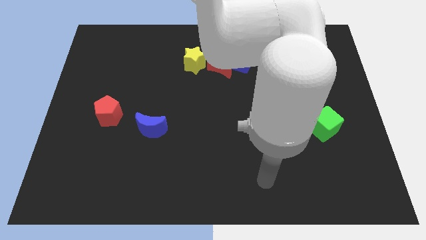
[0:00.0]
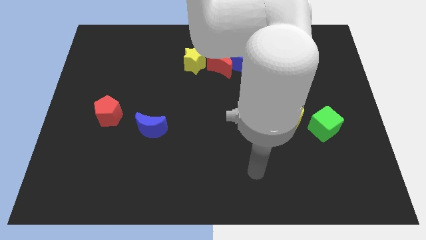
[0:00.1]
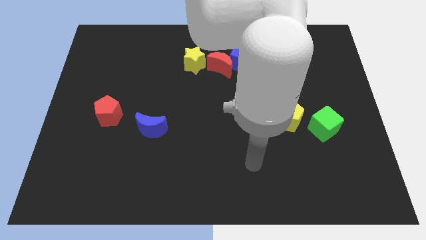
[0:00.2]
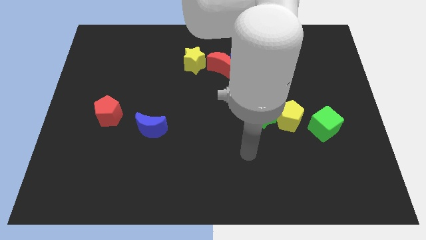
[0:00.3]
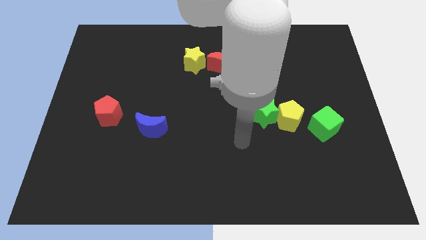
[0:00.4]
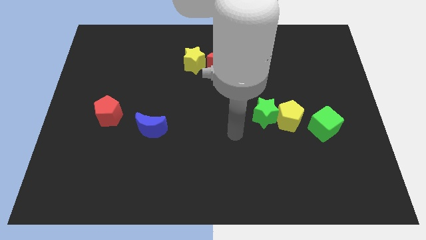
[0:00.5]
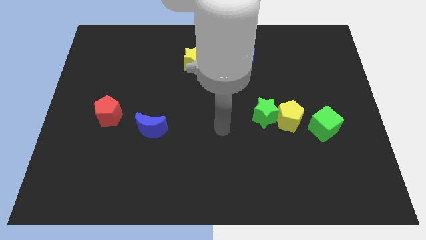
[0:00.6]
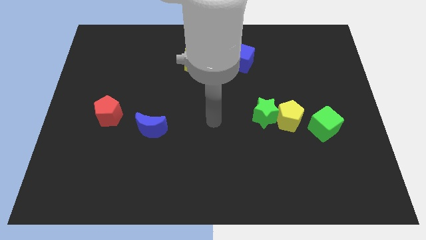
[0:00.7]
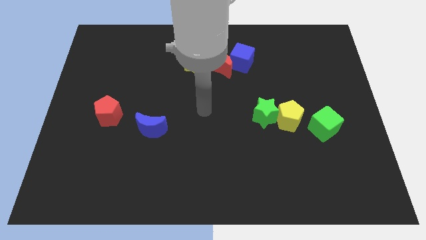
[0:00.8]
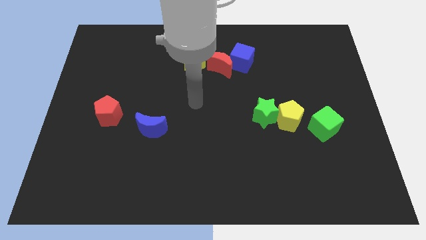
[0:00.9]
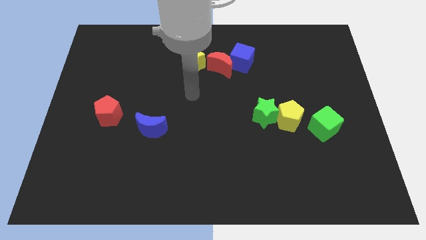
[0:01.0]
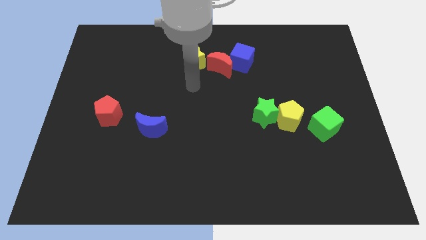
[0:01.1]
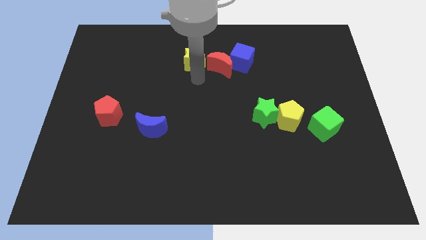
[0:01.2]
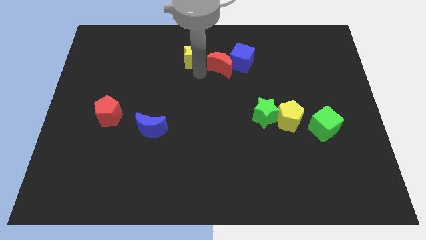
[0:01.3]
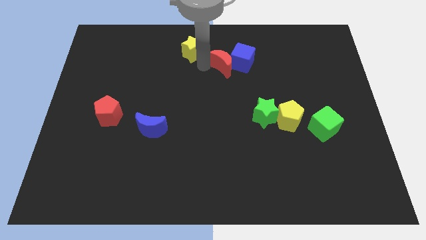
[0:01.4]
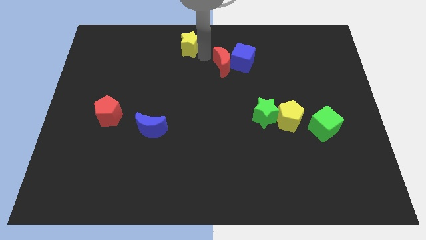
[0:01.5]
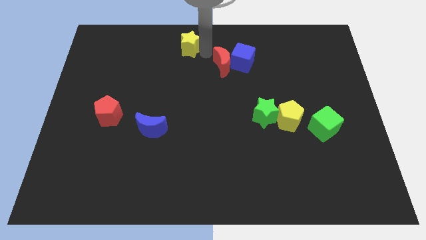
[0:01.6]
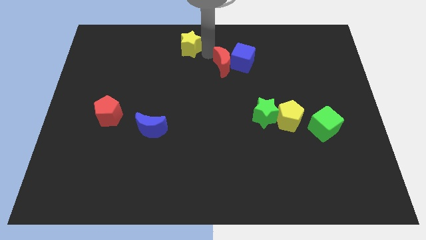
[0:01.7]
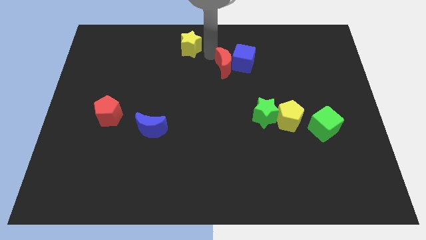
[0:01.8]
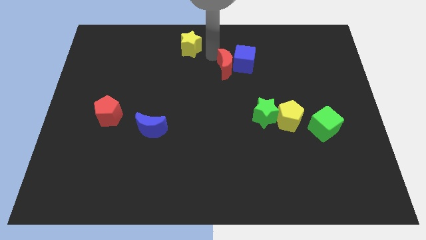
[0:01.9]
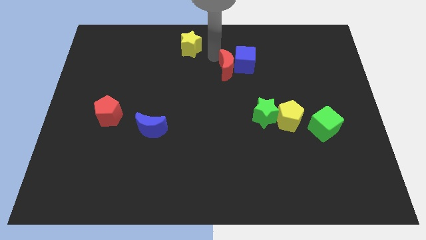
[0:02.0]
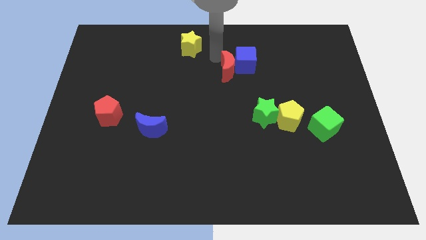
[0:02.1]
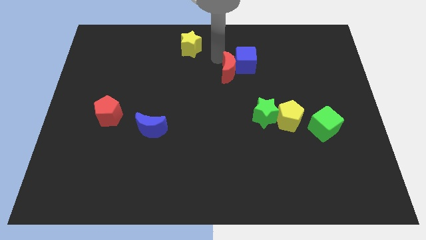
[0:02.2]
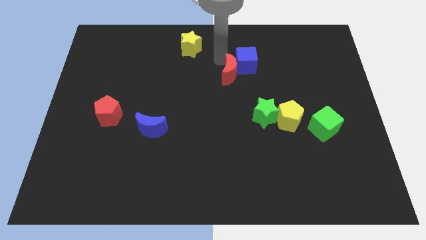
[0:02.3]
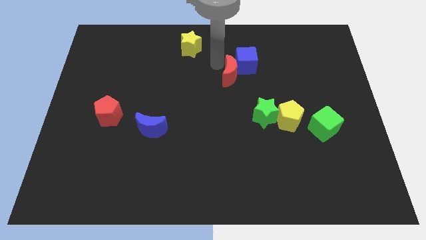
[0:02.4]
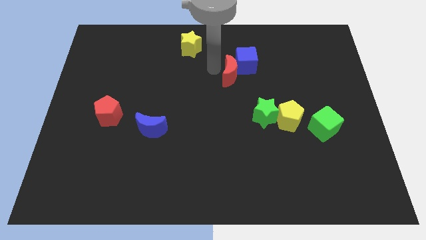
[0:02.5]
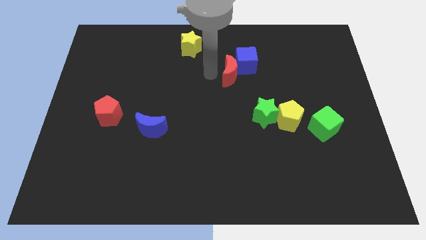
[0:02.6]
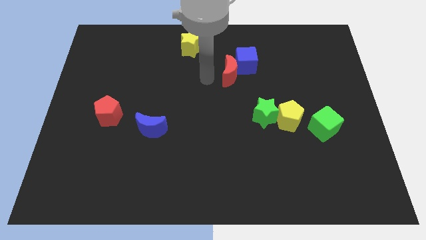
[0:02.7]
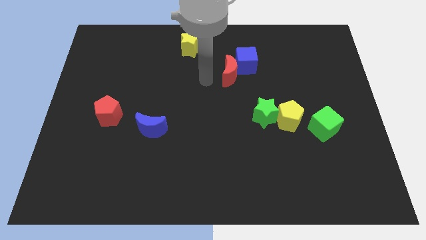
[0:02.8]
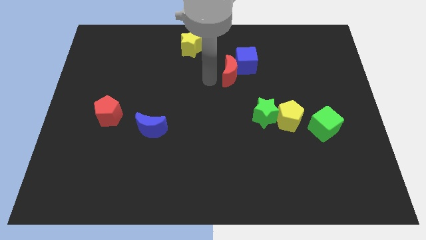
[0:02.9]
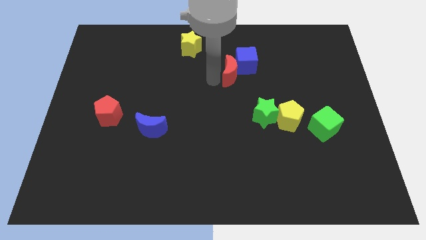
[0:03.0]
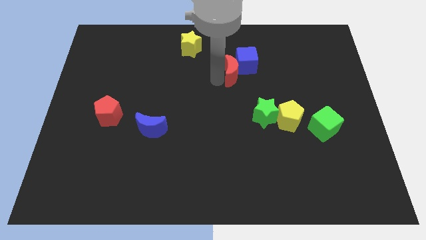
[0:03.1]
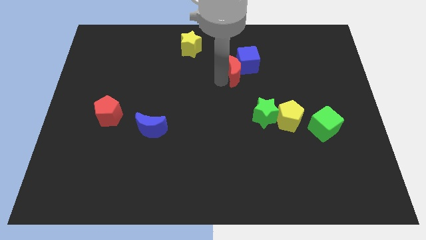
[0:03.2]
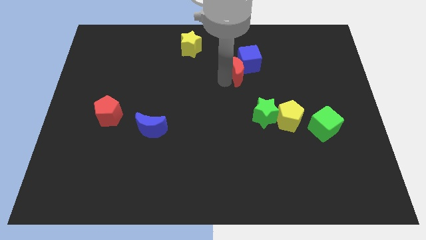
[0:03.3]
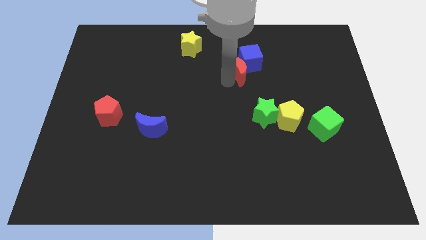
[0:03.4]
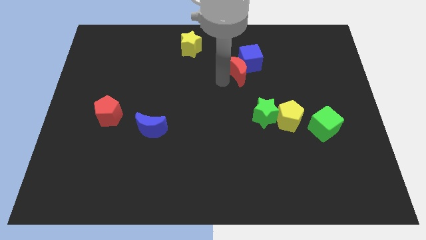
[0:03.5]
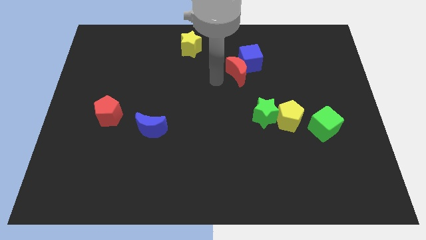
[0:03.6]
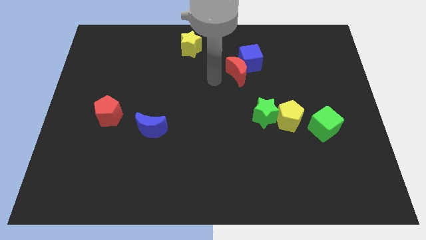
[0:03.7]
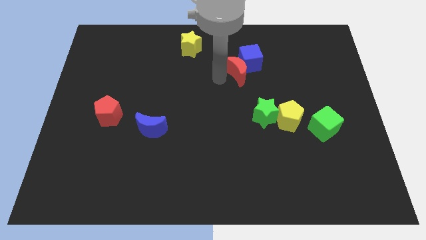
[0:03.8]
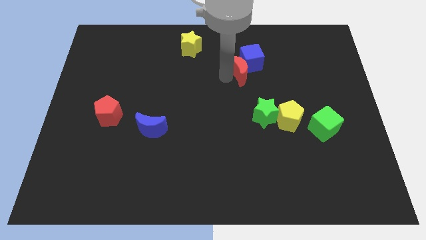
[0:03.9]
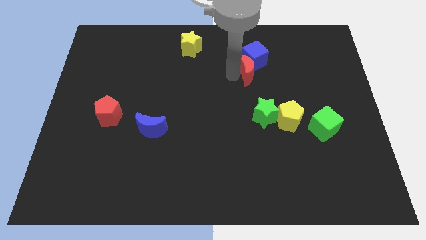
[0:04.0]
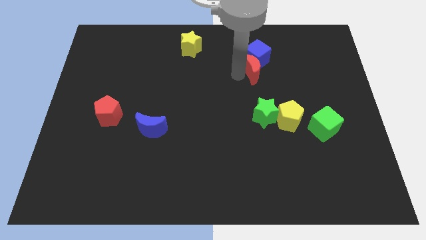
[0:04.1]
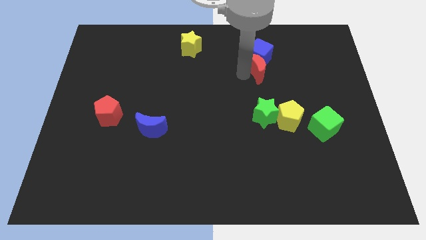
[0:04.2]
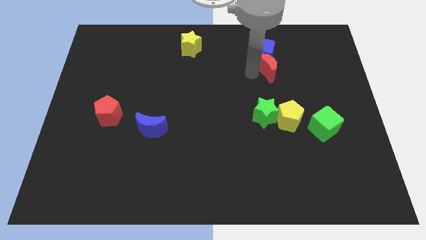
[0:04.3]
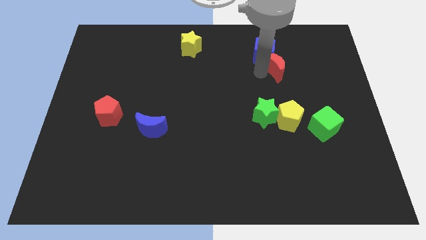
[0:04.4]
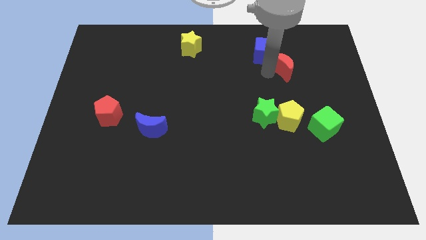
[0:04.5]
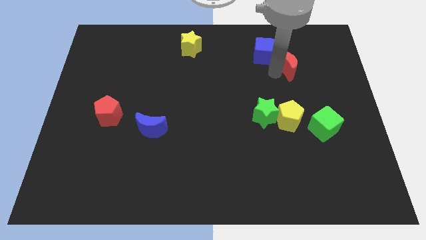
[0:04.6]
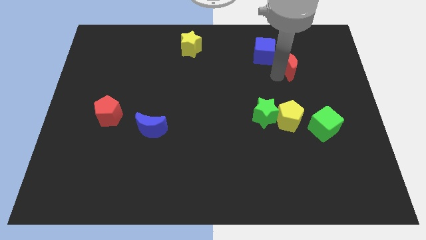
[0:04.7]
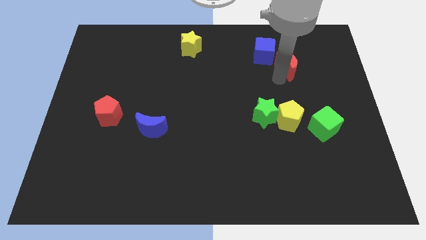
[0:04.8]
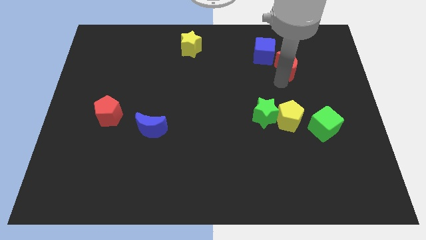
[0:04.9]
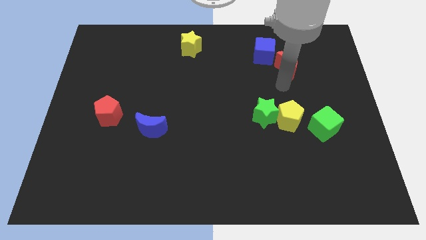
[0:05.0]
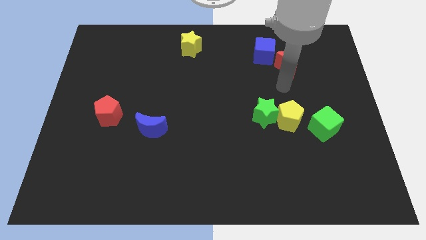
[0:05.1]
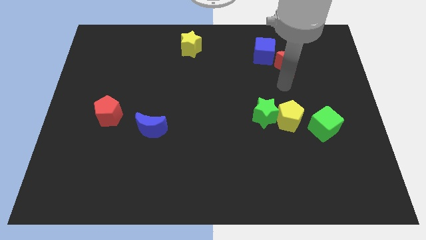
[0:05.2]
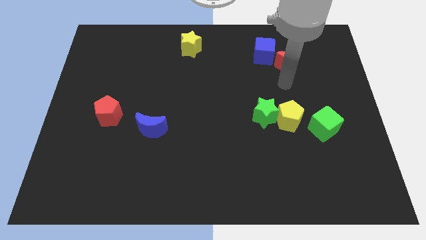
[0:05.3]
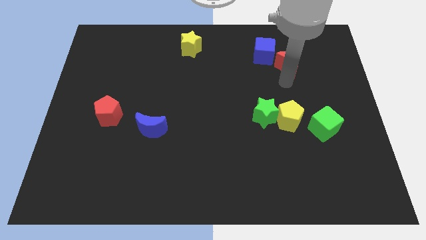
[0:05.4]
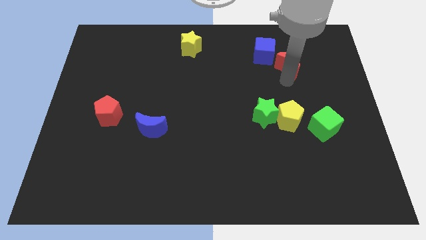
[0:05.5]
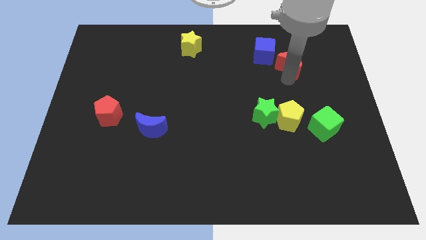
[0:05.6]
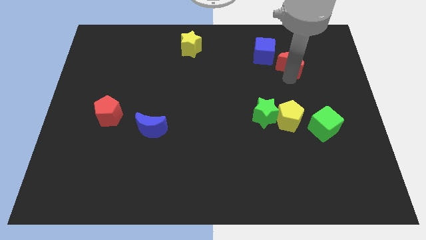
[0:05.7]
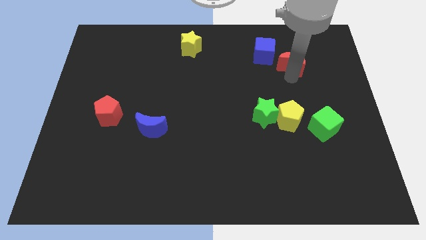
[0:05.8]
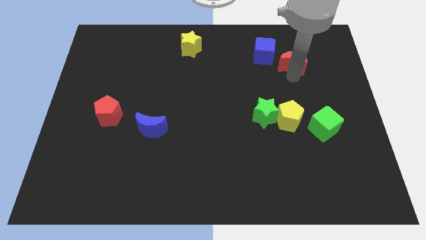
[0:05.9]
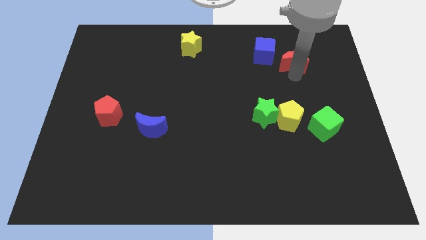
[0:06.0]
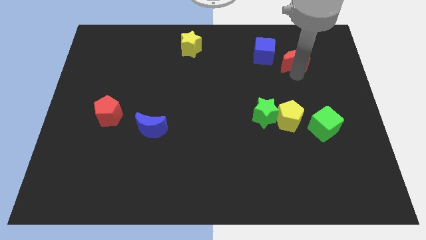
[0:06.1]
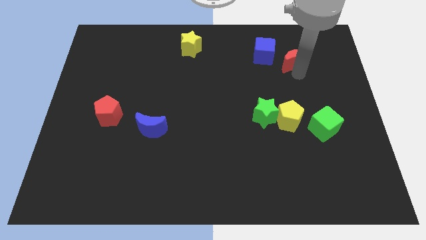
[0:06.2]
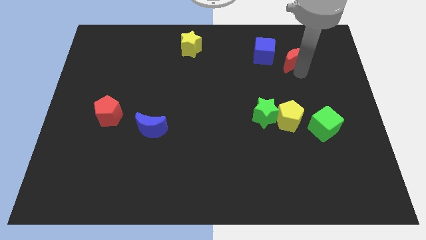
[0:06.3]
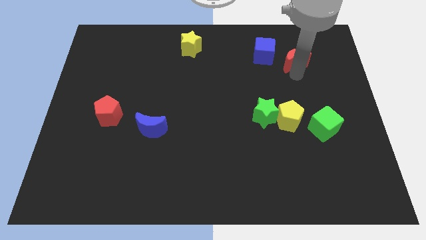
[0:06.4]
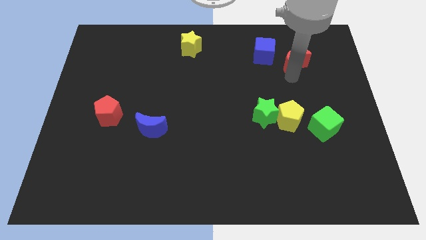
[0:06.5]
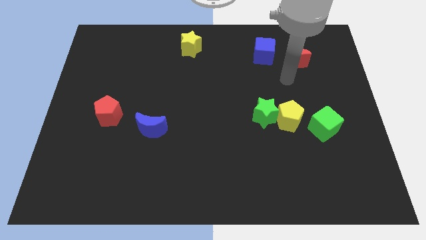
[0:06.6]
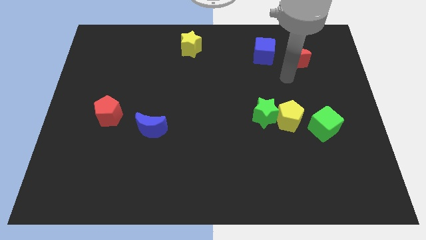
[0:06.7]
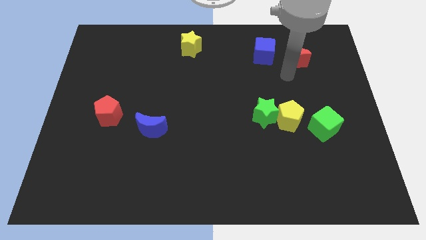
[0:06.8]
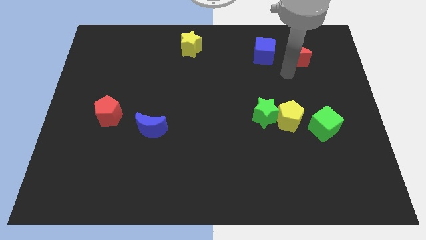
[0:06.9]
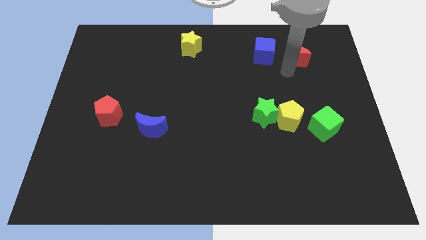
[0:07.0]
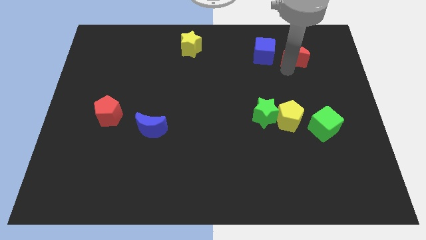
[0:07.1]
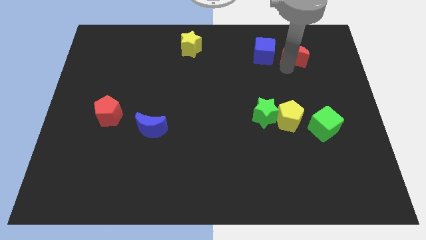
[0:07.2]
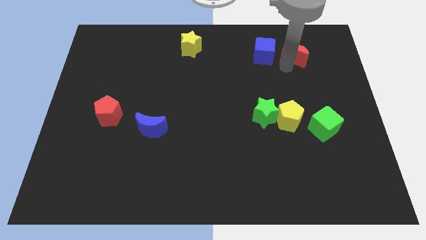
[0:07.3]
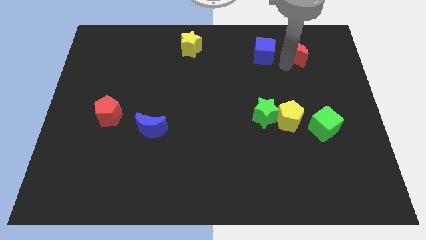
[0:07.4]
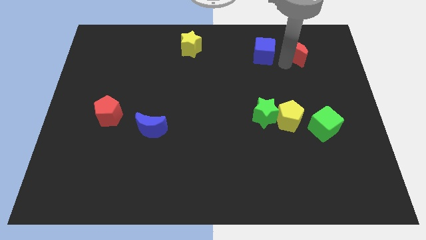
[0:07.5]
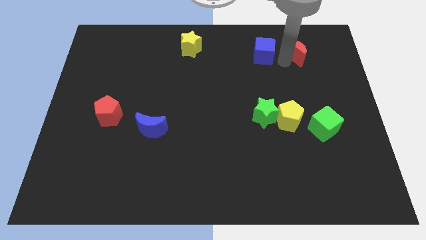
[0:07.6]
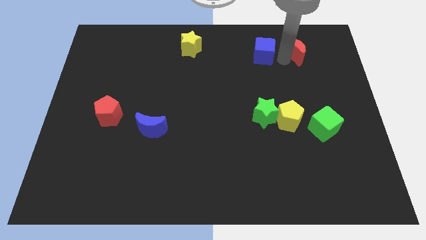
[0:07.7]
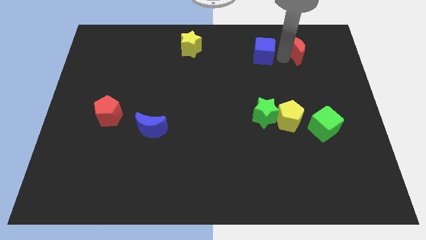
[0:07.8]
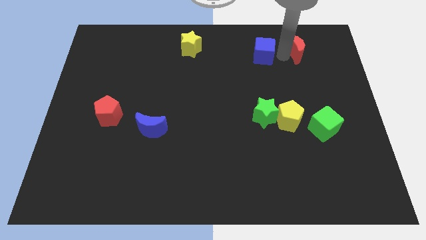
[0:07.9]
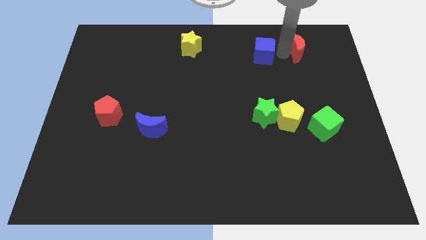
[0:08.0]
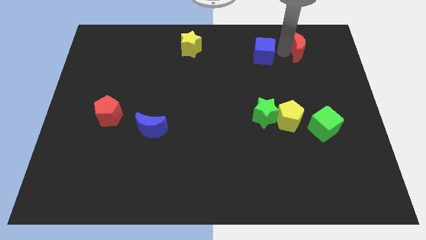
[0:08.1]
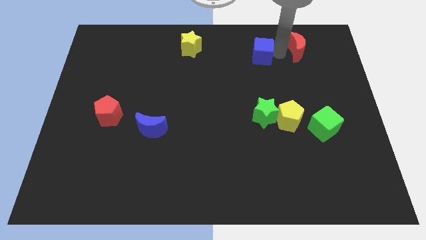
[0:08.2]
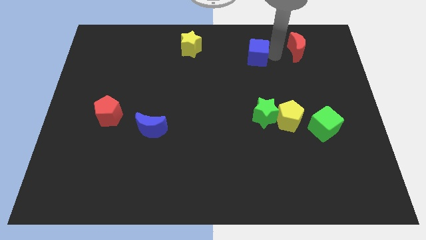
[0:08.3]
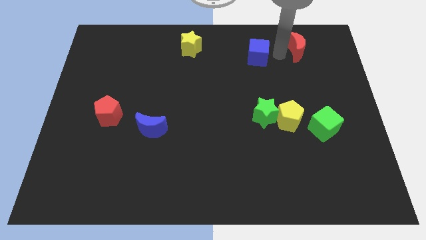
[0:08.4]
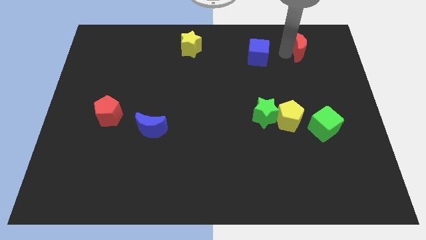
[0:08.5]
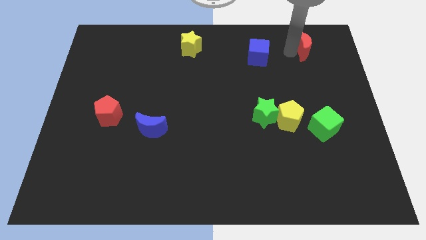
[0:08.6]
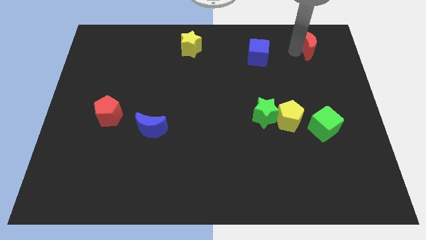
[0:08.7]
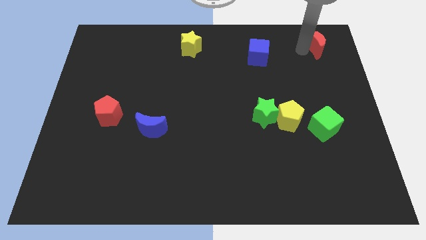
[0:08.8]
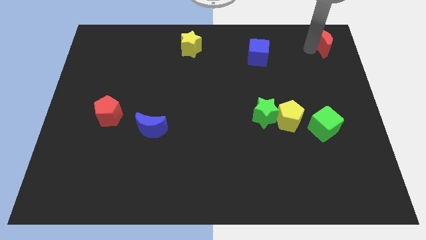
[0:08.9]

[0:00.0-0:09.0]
slide the red moon to the top right
